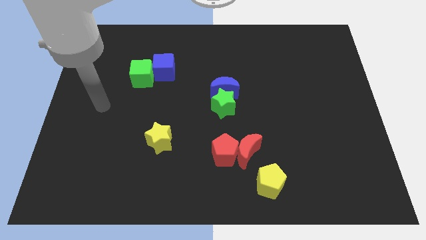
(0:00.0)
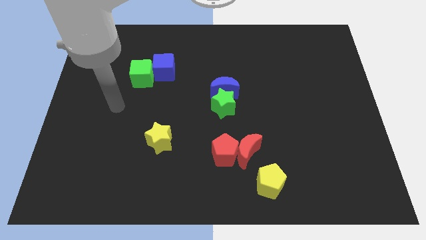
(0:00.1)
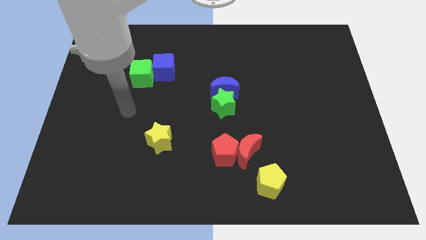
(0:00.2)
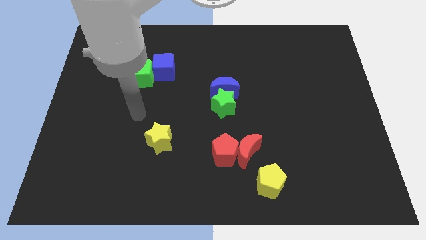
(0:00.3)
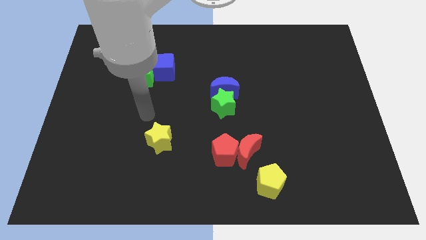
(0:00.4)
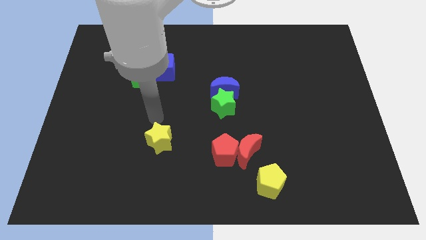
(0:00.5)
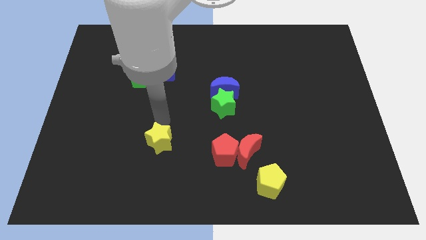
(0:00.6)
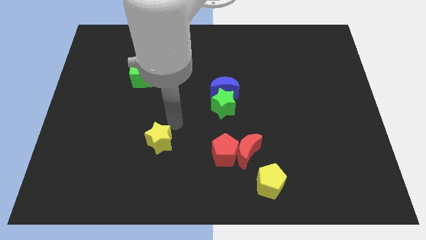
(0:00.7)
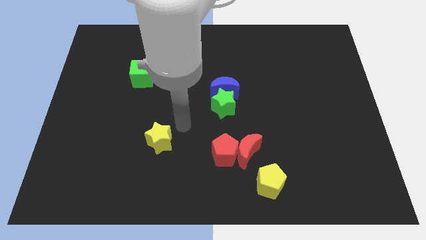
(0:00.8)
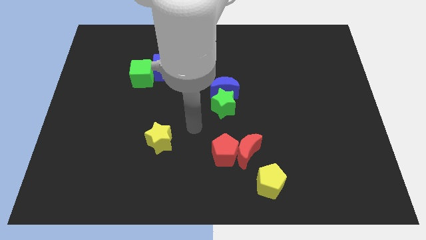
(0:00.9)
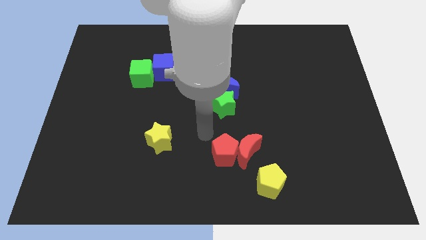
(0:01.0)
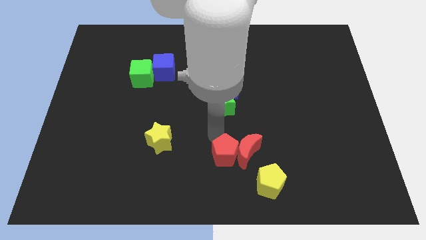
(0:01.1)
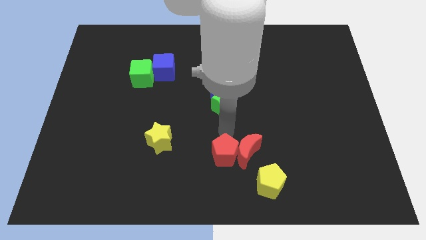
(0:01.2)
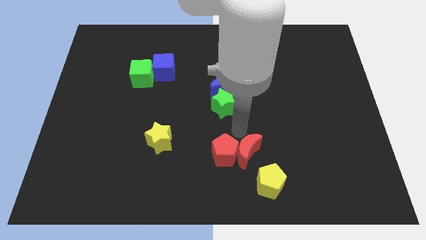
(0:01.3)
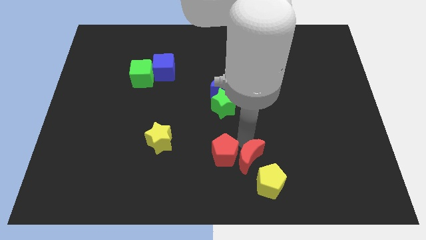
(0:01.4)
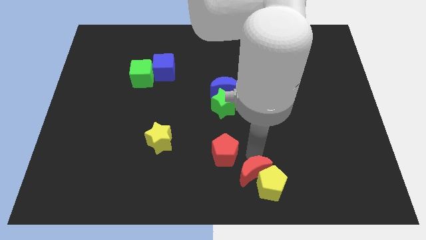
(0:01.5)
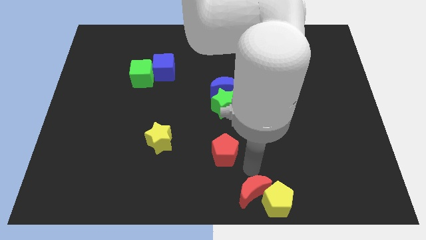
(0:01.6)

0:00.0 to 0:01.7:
move the red pentagon away from the red moon

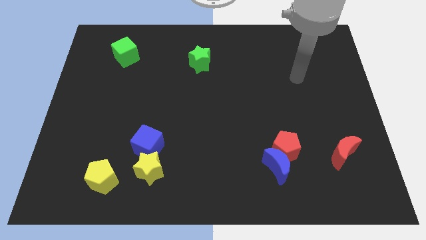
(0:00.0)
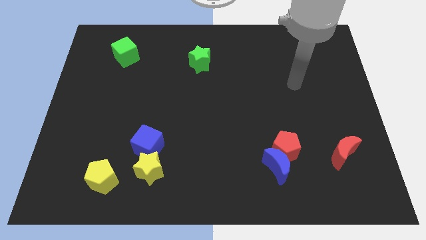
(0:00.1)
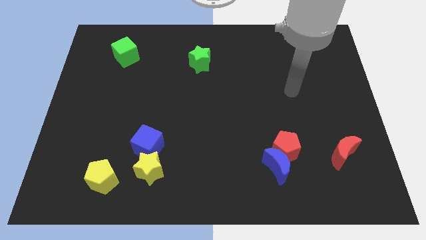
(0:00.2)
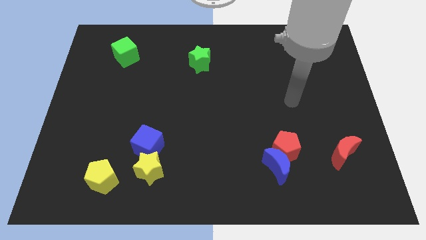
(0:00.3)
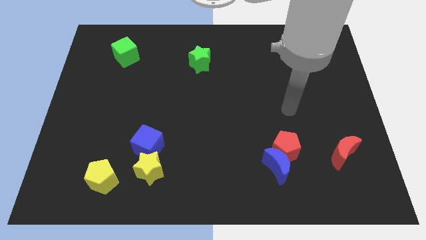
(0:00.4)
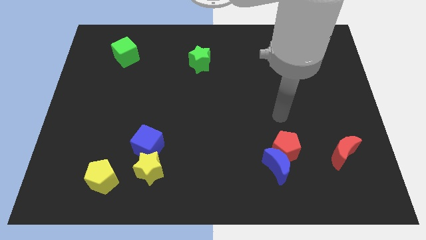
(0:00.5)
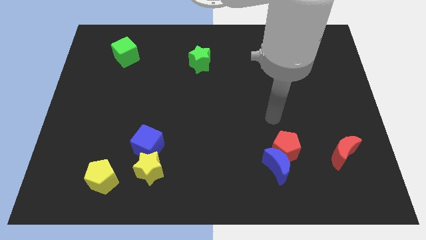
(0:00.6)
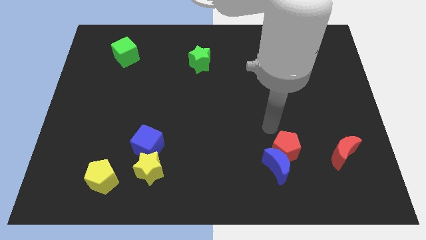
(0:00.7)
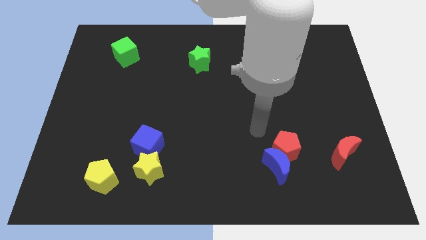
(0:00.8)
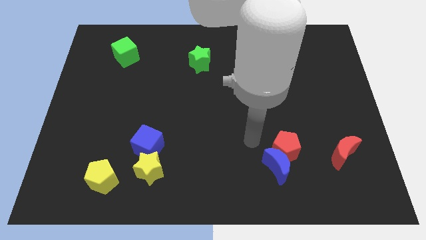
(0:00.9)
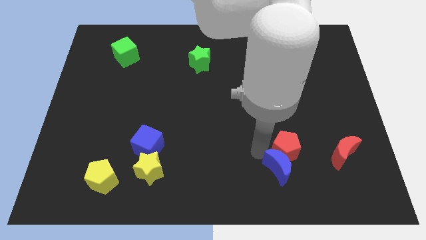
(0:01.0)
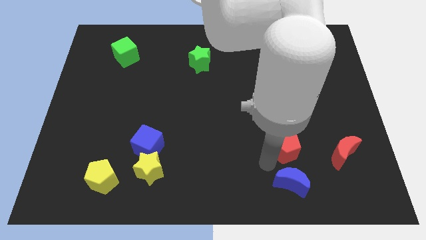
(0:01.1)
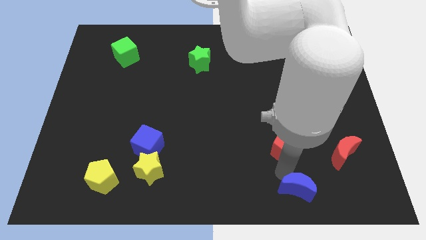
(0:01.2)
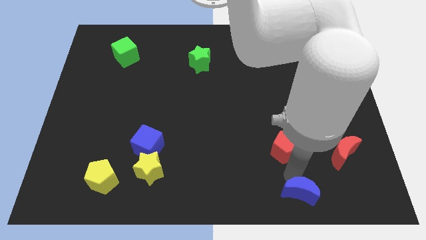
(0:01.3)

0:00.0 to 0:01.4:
pull the red pentagon apart from the blue moon

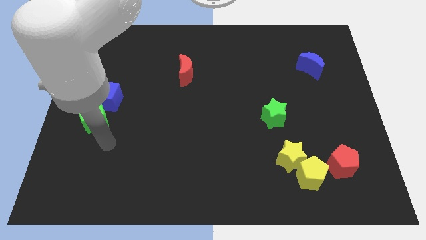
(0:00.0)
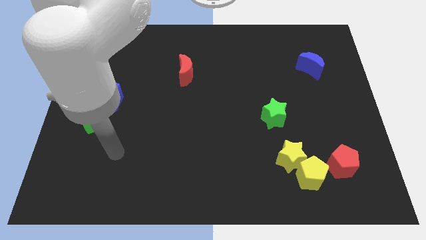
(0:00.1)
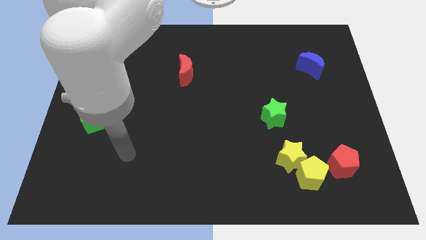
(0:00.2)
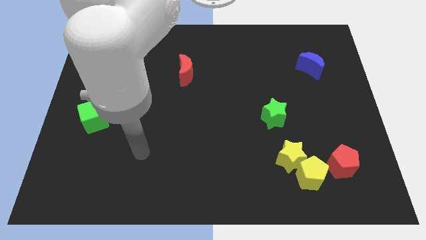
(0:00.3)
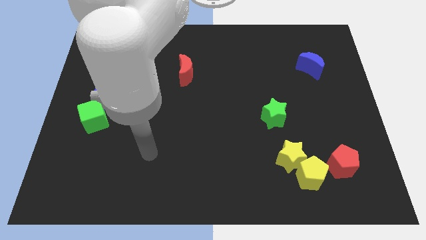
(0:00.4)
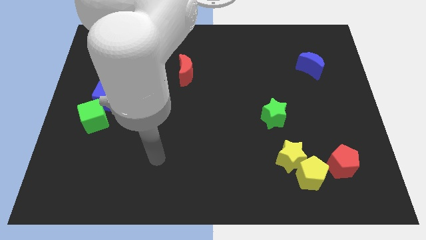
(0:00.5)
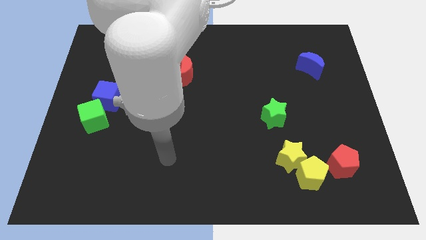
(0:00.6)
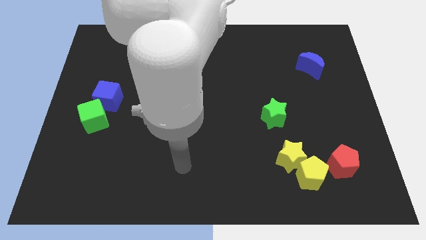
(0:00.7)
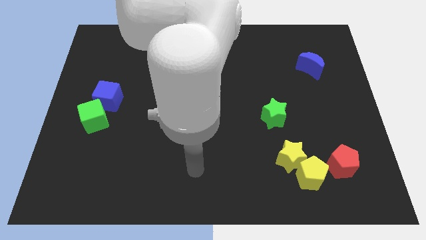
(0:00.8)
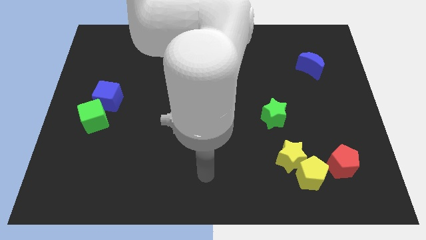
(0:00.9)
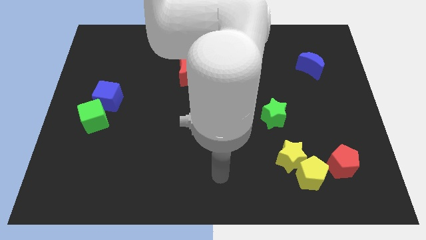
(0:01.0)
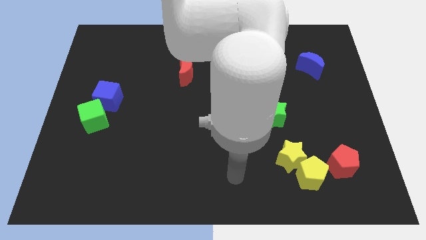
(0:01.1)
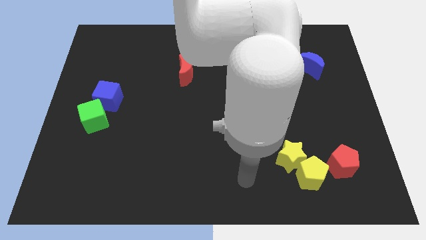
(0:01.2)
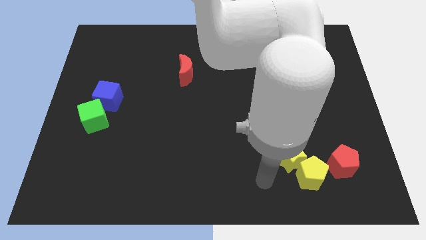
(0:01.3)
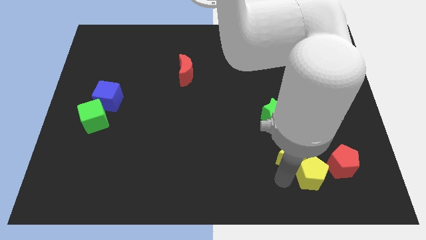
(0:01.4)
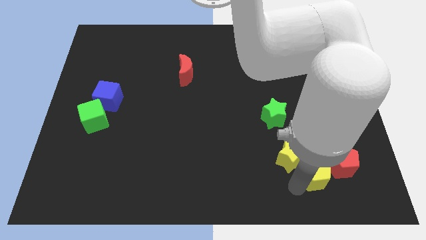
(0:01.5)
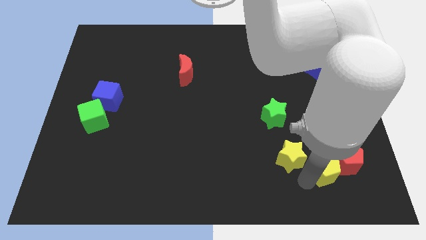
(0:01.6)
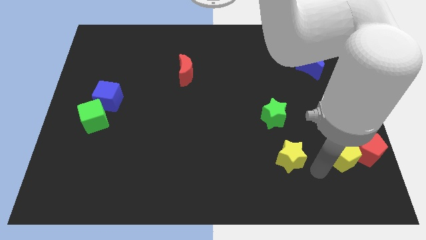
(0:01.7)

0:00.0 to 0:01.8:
move the yellow star away from the yellow pentagon

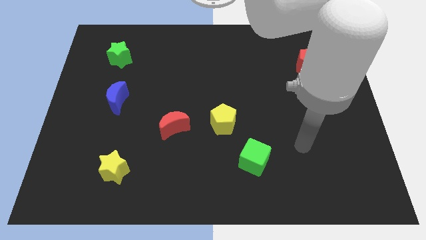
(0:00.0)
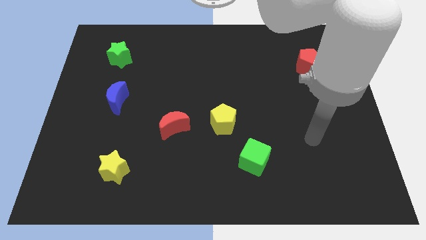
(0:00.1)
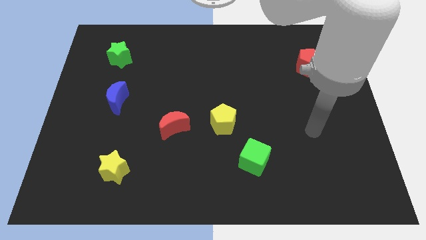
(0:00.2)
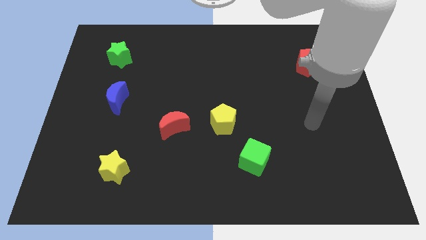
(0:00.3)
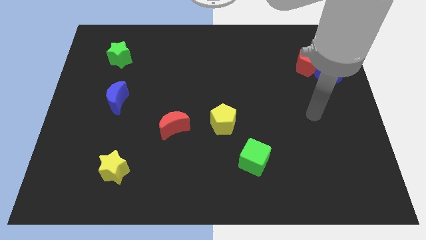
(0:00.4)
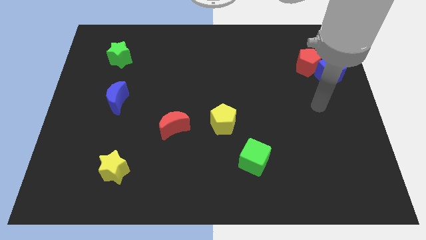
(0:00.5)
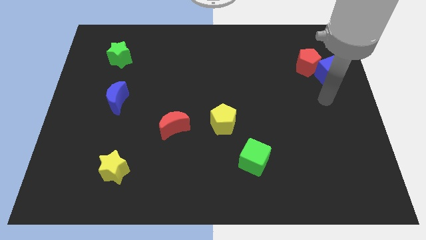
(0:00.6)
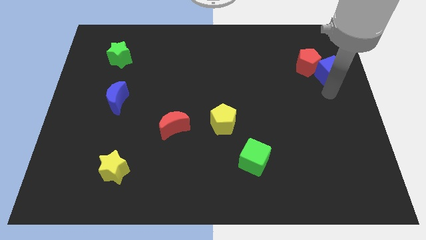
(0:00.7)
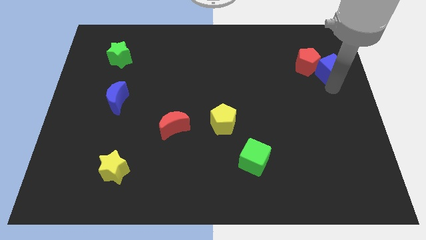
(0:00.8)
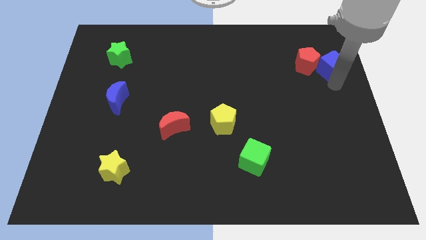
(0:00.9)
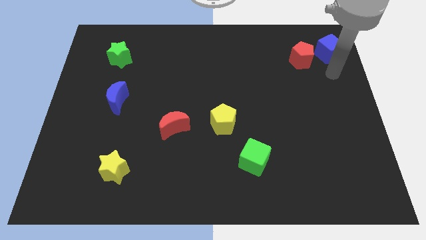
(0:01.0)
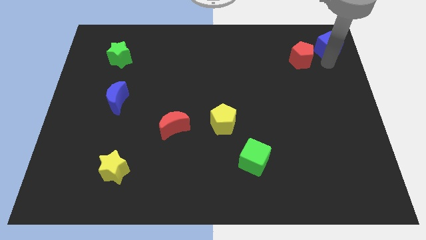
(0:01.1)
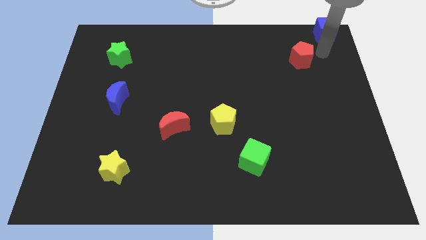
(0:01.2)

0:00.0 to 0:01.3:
pull the red pentagon apart from the blue cube

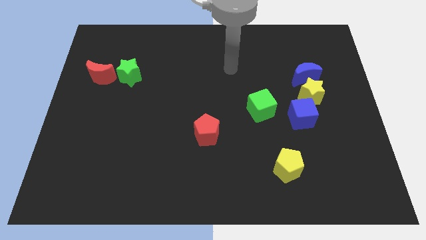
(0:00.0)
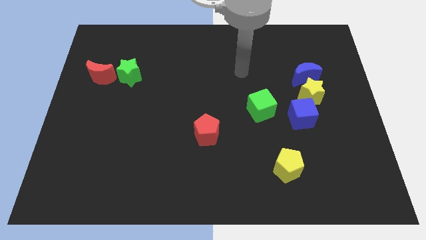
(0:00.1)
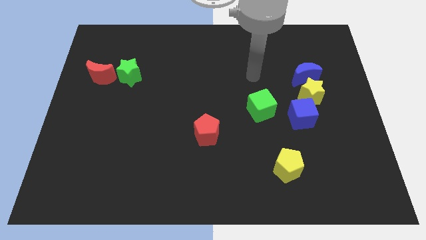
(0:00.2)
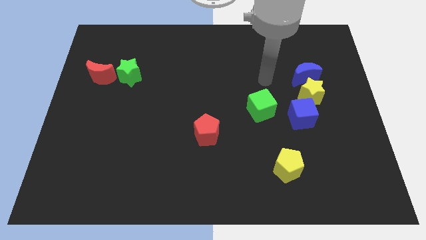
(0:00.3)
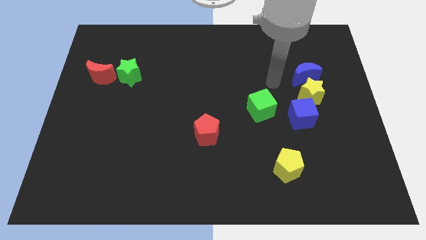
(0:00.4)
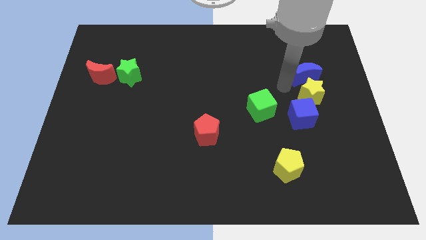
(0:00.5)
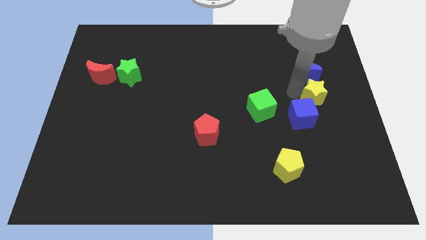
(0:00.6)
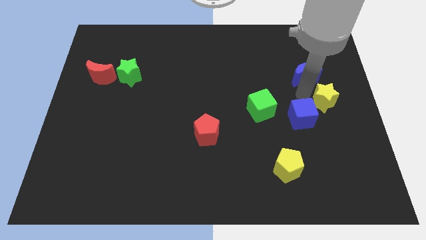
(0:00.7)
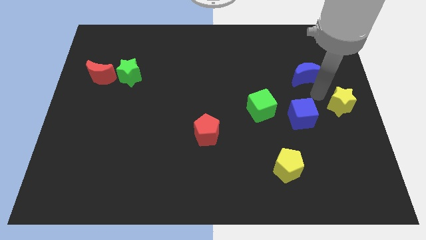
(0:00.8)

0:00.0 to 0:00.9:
separate the blue moon from the yellow star

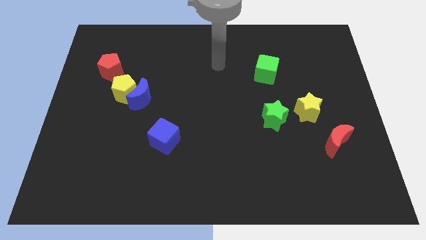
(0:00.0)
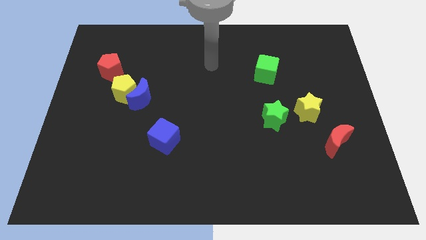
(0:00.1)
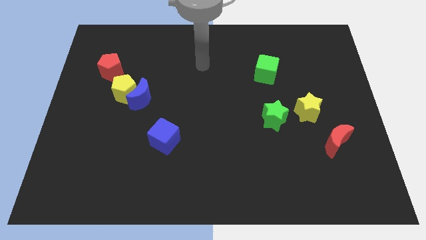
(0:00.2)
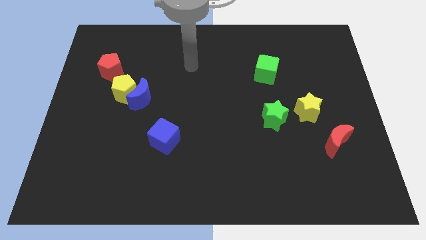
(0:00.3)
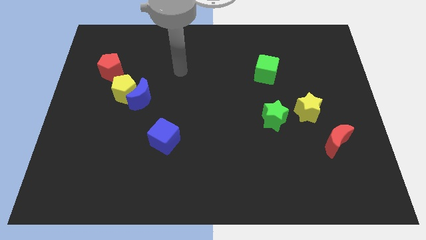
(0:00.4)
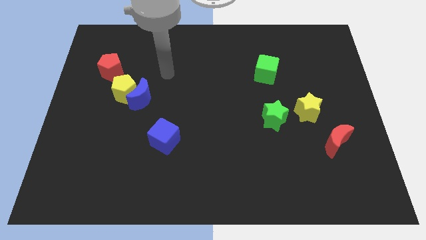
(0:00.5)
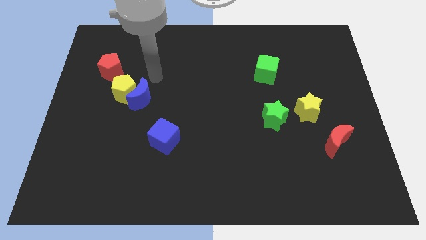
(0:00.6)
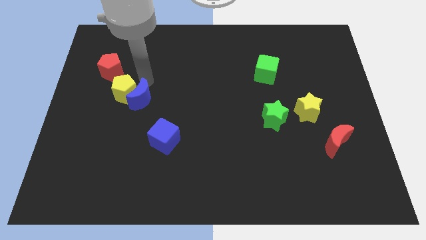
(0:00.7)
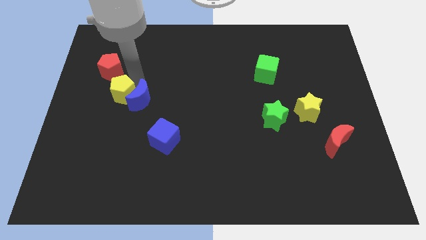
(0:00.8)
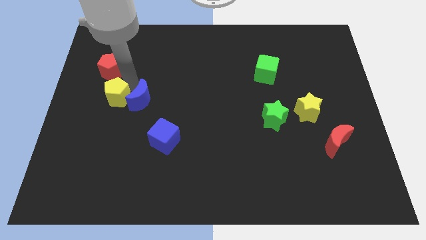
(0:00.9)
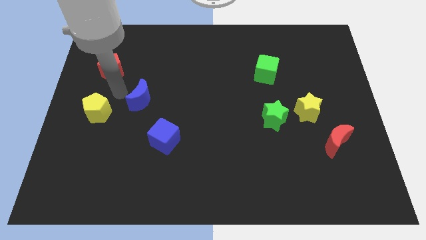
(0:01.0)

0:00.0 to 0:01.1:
separate the blue moon from the yellow pentagon

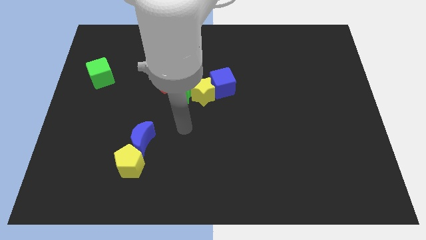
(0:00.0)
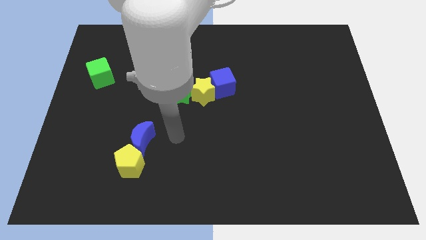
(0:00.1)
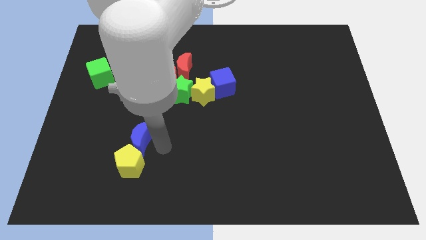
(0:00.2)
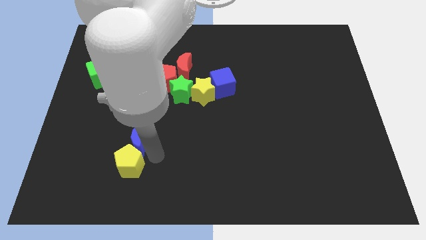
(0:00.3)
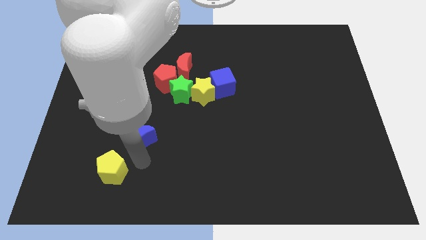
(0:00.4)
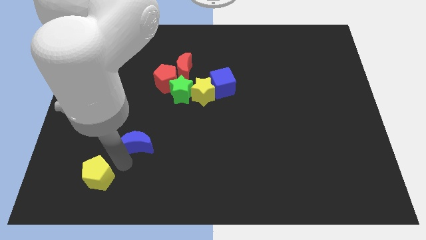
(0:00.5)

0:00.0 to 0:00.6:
move the blue moon away from the yellow pentagon

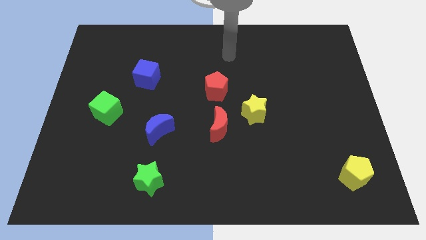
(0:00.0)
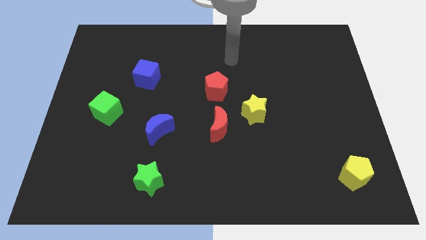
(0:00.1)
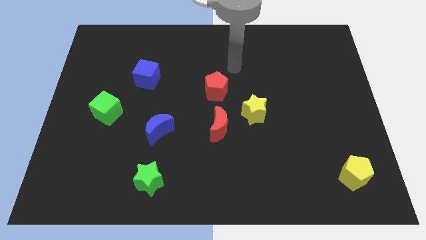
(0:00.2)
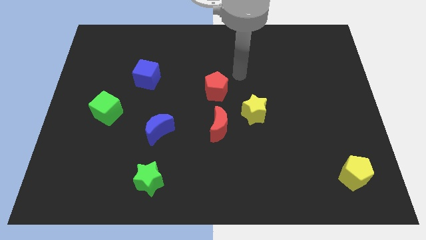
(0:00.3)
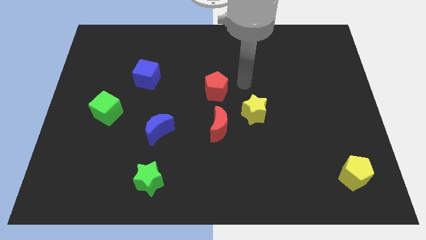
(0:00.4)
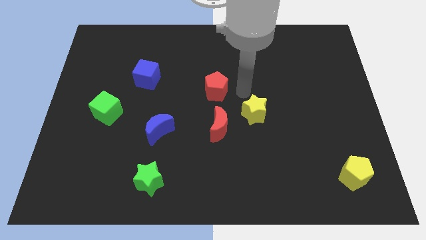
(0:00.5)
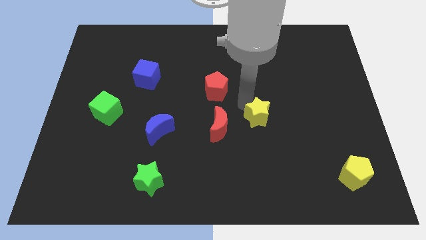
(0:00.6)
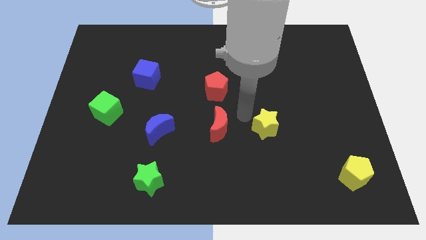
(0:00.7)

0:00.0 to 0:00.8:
move the red moon away from the yellow star
